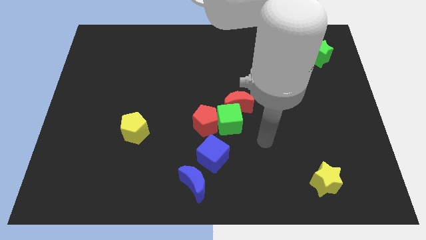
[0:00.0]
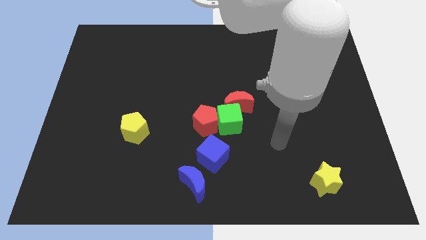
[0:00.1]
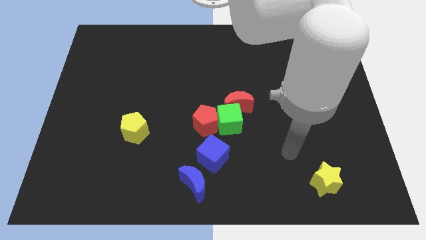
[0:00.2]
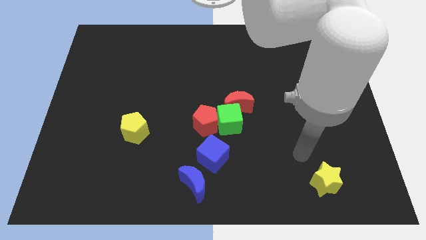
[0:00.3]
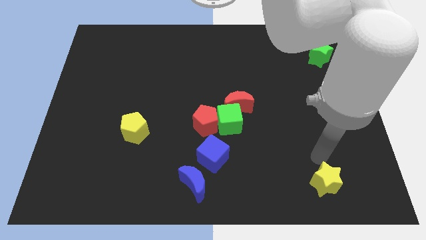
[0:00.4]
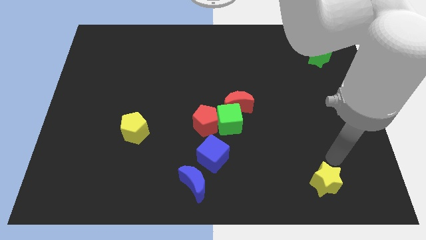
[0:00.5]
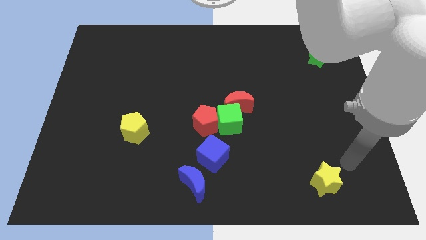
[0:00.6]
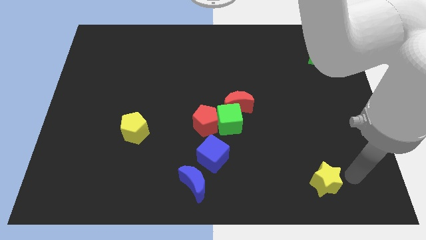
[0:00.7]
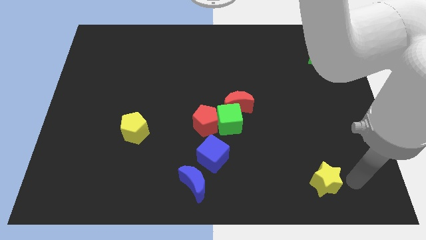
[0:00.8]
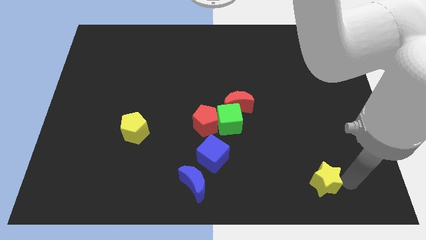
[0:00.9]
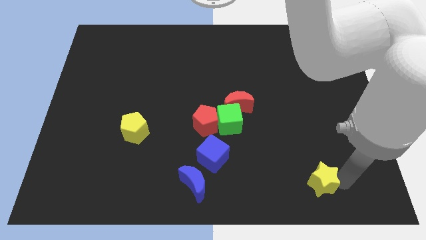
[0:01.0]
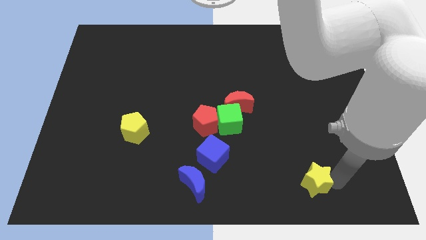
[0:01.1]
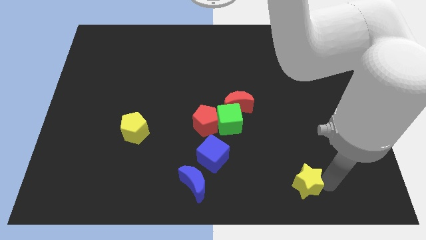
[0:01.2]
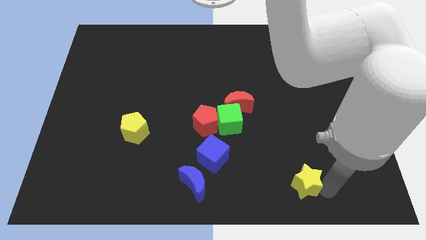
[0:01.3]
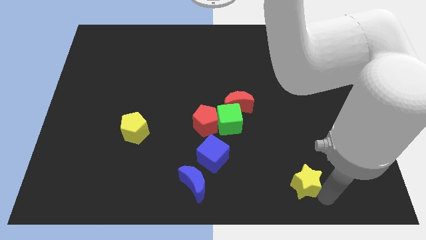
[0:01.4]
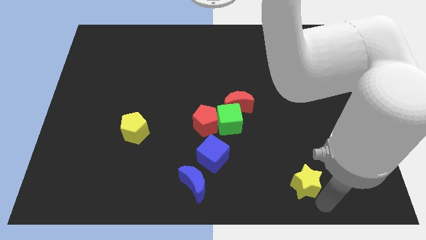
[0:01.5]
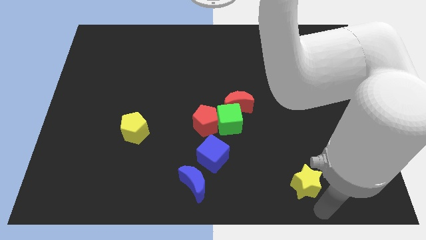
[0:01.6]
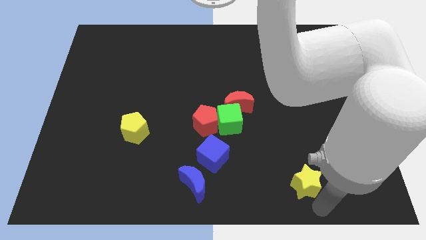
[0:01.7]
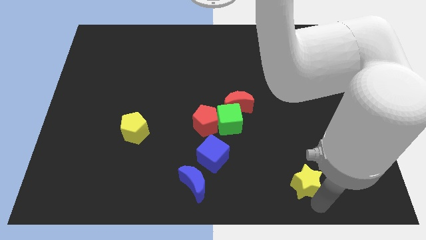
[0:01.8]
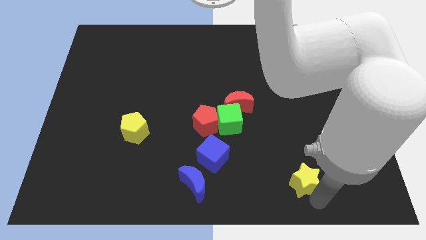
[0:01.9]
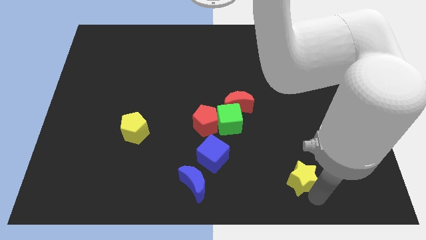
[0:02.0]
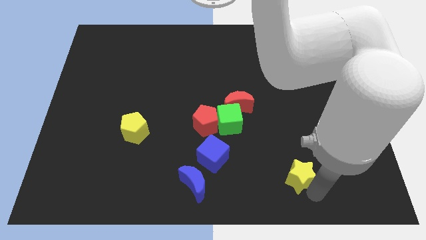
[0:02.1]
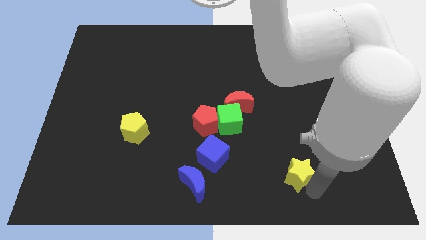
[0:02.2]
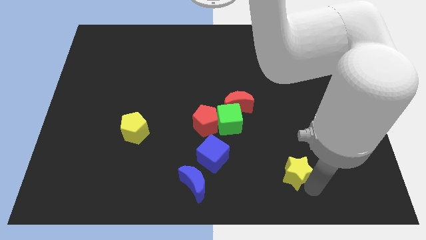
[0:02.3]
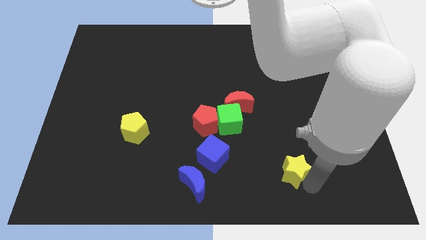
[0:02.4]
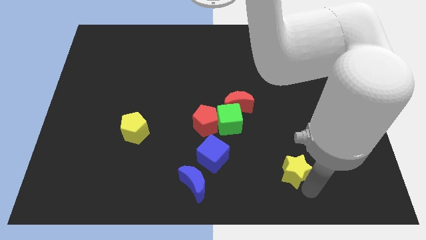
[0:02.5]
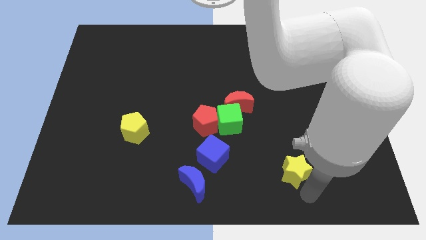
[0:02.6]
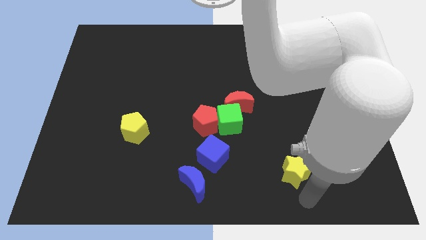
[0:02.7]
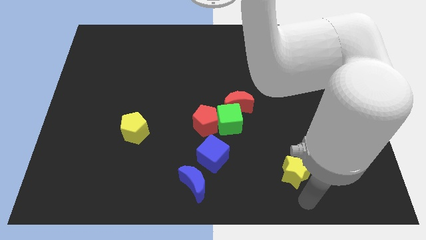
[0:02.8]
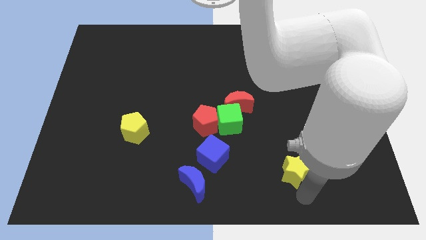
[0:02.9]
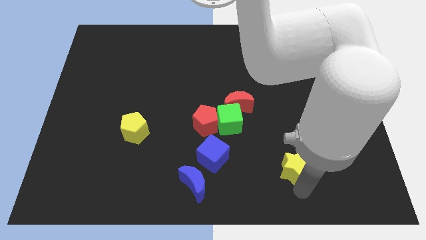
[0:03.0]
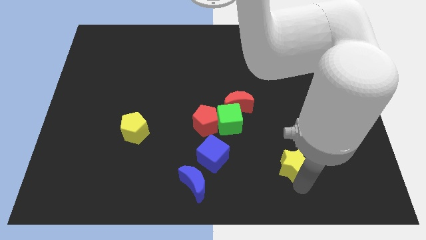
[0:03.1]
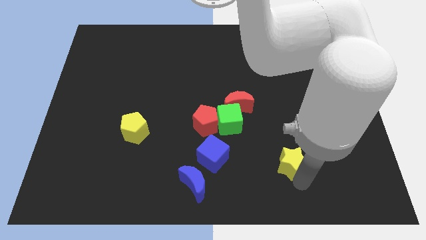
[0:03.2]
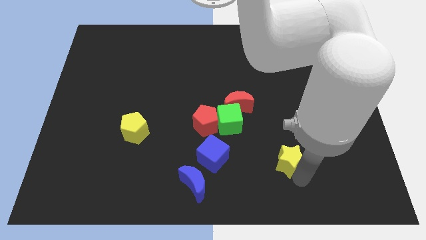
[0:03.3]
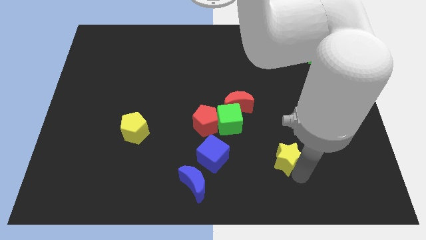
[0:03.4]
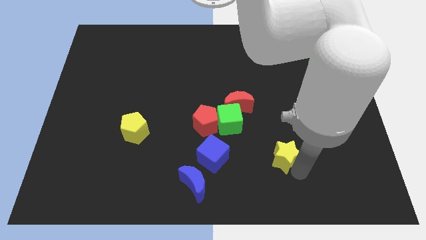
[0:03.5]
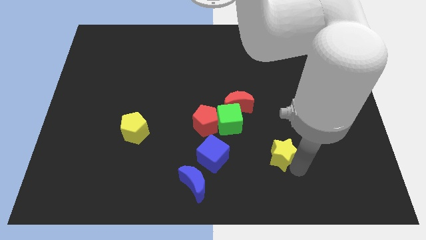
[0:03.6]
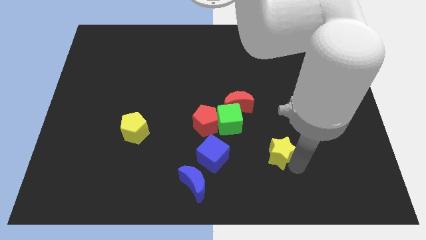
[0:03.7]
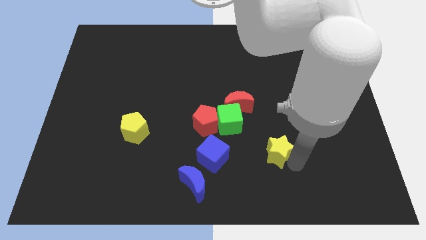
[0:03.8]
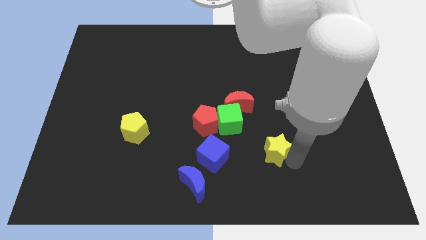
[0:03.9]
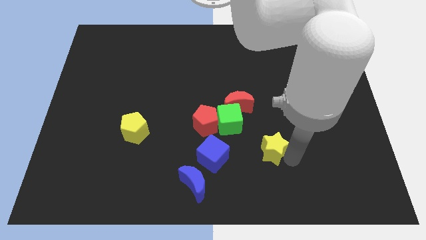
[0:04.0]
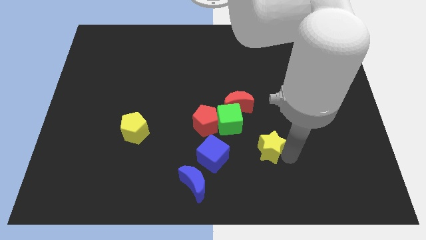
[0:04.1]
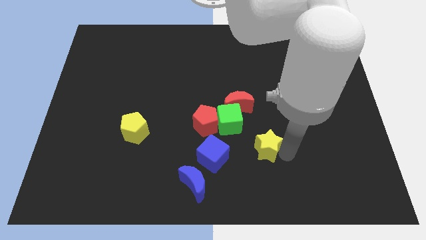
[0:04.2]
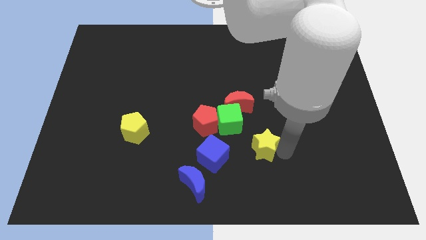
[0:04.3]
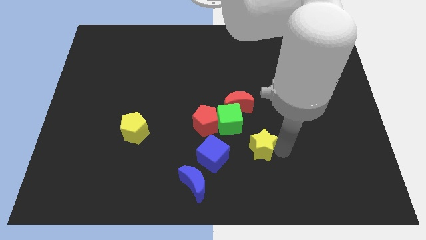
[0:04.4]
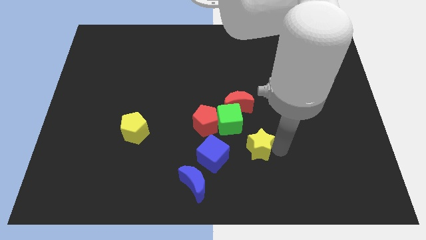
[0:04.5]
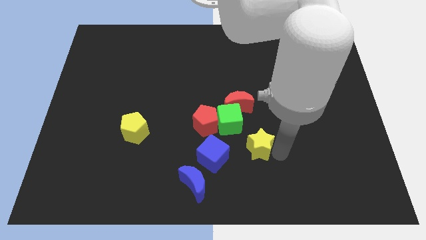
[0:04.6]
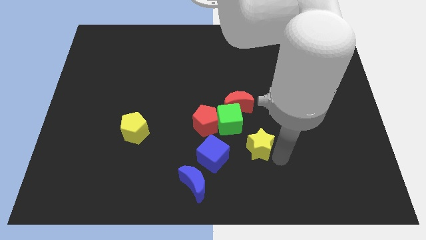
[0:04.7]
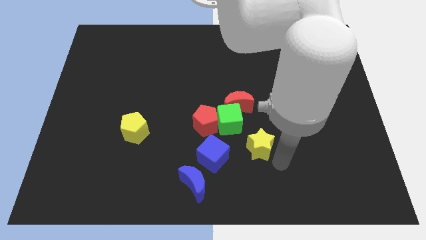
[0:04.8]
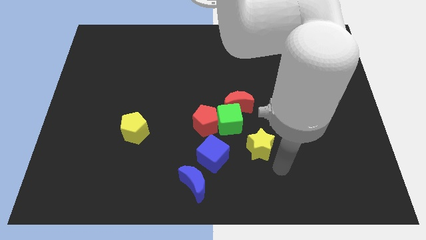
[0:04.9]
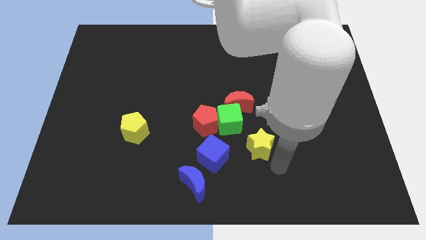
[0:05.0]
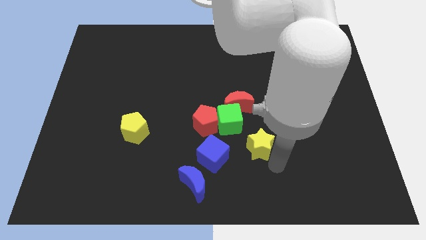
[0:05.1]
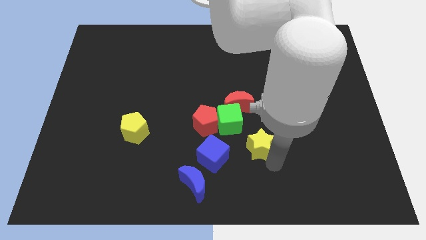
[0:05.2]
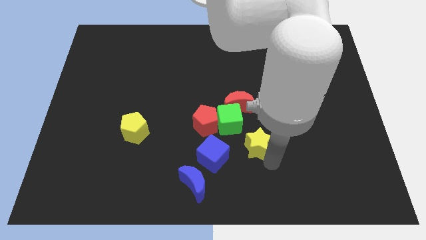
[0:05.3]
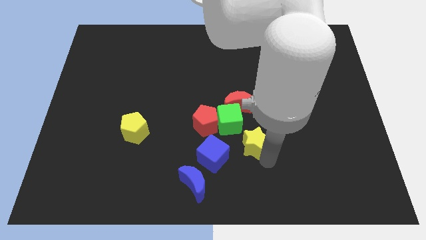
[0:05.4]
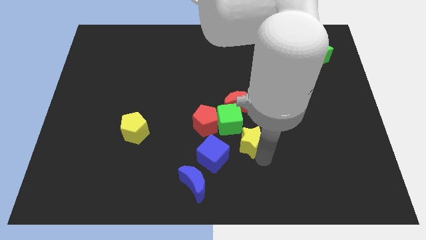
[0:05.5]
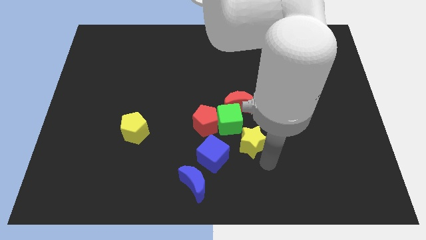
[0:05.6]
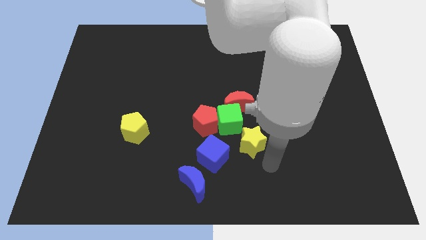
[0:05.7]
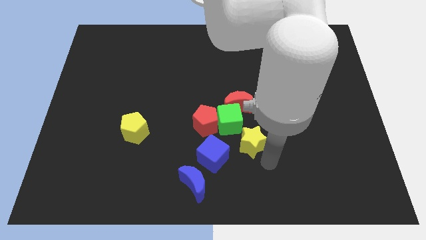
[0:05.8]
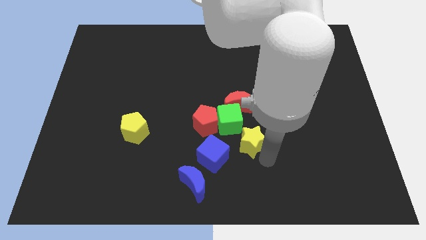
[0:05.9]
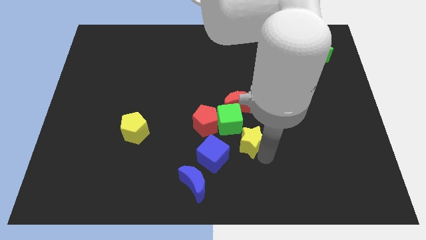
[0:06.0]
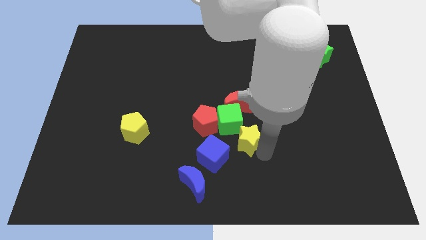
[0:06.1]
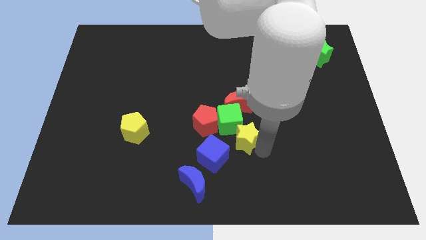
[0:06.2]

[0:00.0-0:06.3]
put the yellow star next to the green cube

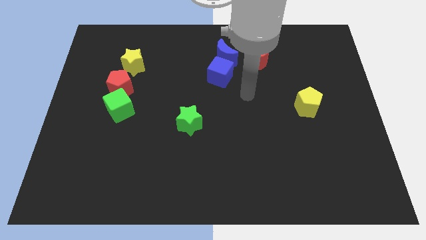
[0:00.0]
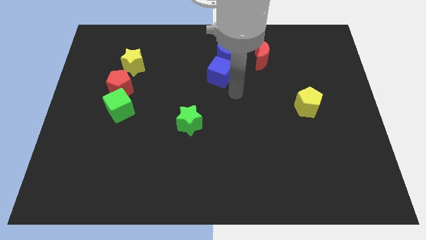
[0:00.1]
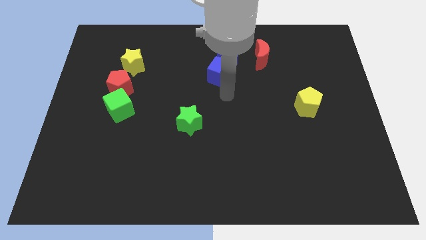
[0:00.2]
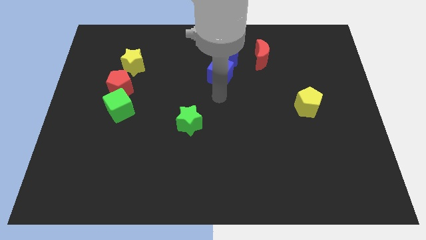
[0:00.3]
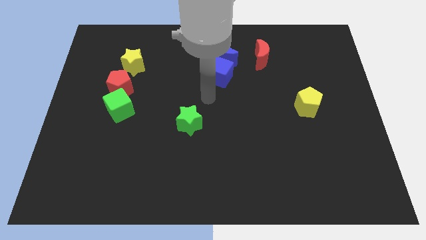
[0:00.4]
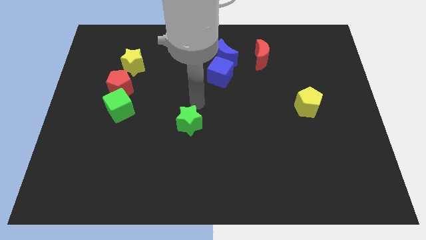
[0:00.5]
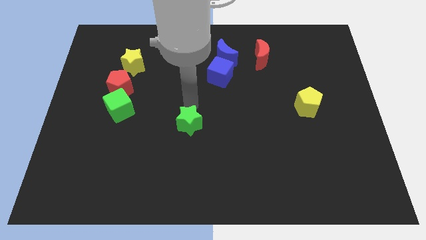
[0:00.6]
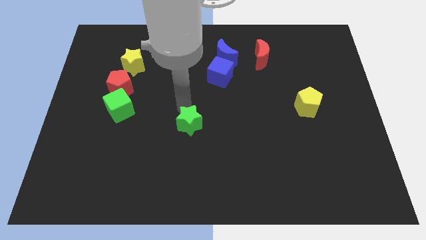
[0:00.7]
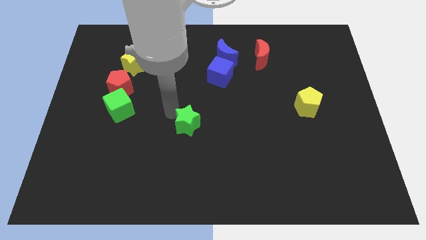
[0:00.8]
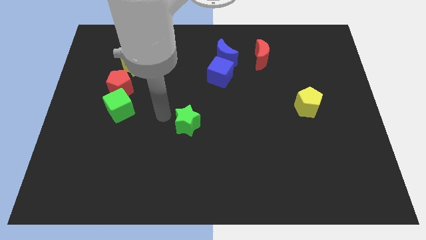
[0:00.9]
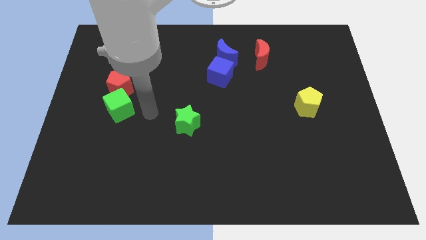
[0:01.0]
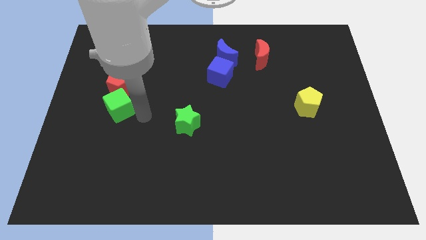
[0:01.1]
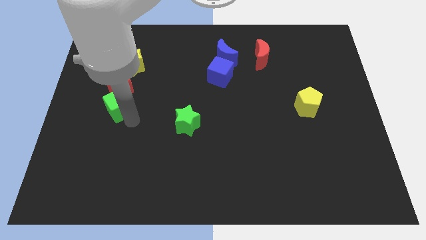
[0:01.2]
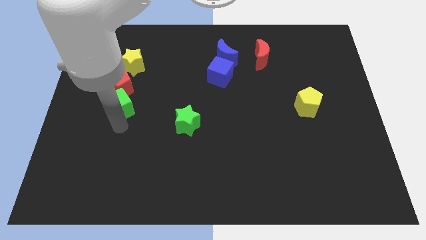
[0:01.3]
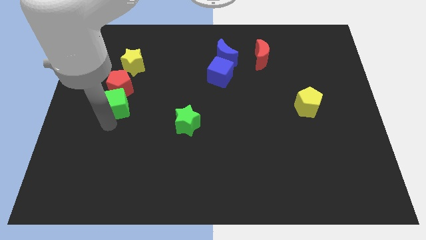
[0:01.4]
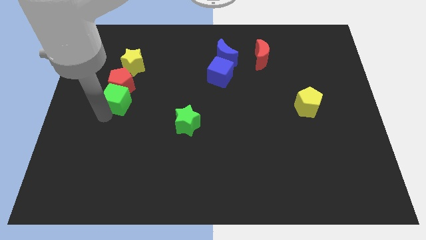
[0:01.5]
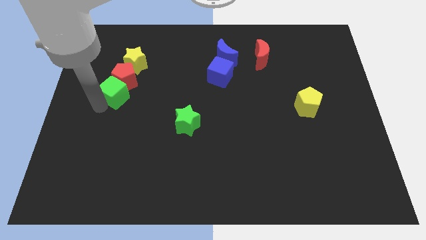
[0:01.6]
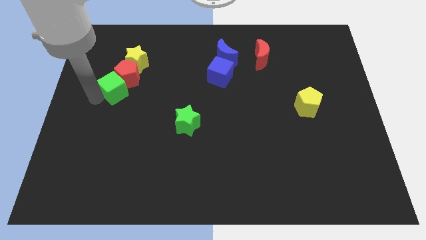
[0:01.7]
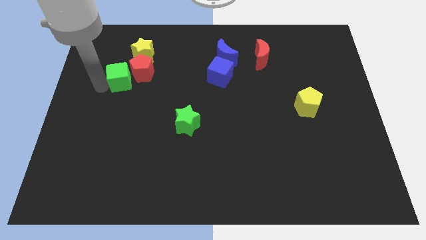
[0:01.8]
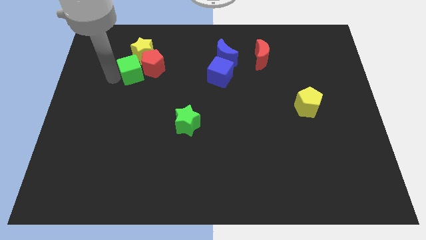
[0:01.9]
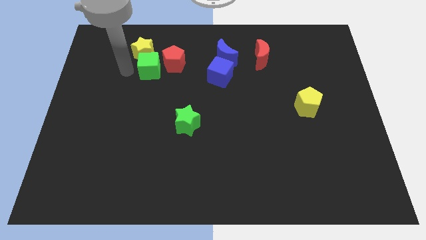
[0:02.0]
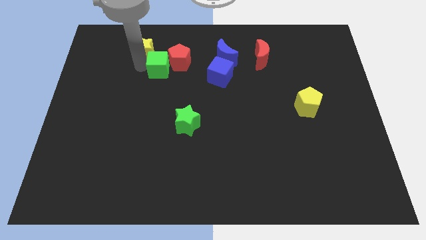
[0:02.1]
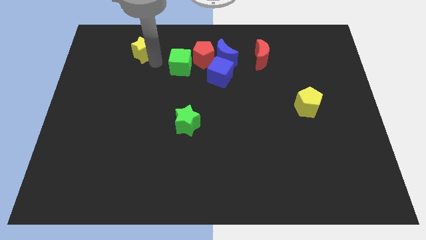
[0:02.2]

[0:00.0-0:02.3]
slide the red pentagon towards the blue moon
